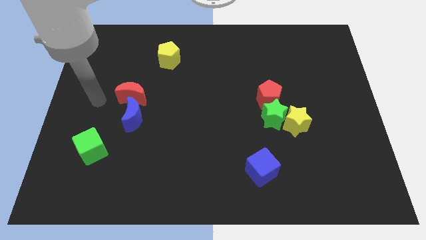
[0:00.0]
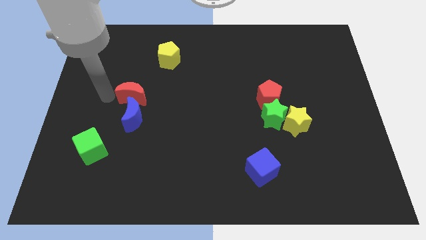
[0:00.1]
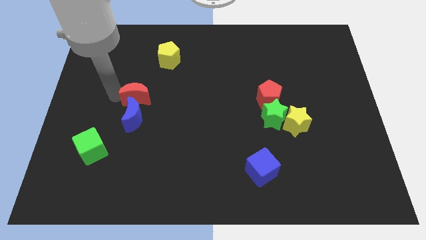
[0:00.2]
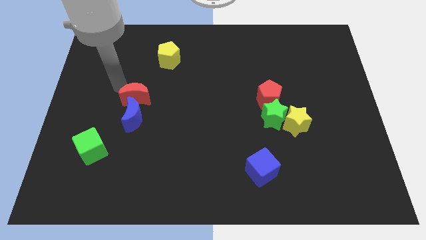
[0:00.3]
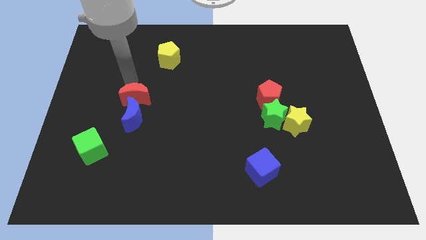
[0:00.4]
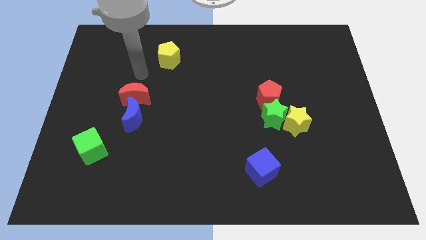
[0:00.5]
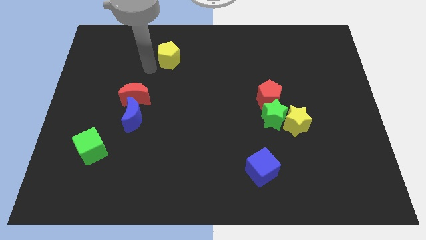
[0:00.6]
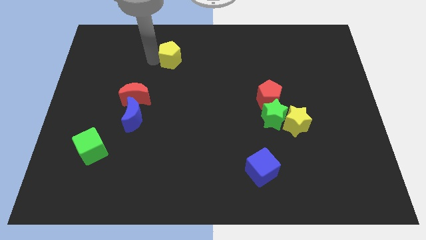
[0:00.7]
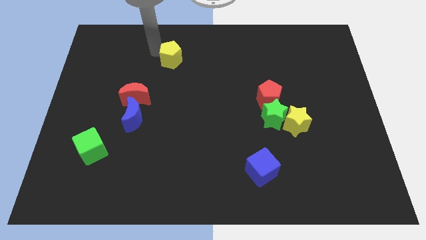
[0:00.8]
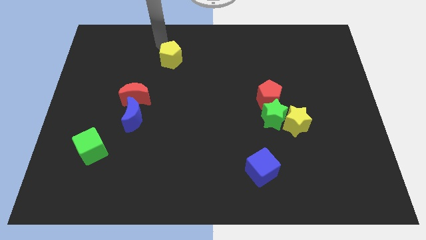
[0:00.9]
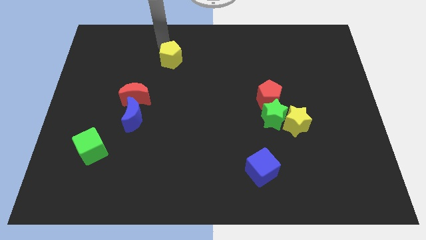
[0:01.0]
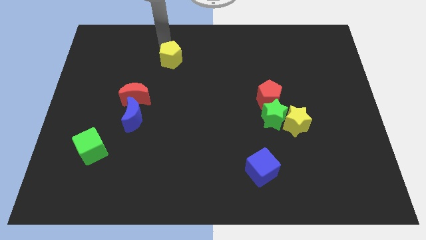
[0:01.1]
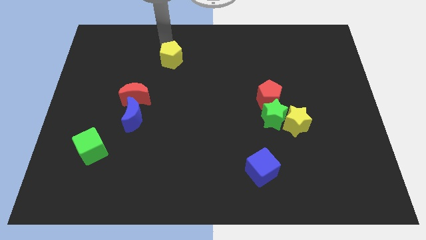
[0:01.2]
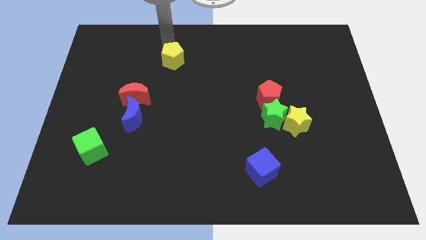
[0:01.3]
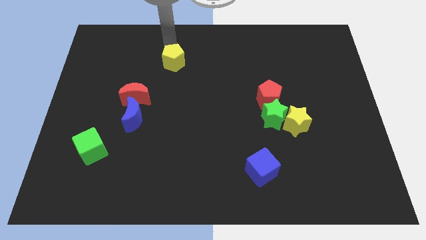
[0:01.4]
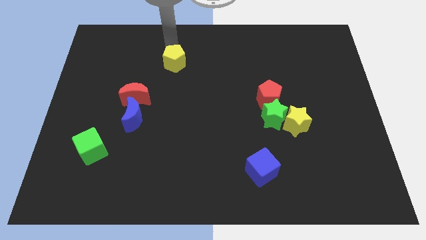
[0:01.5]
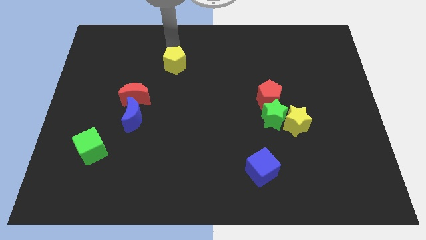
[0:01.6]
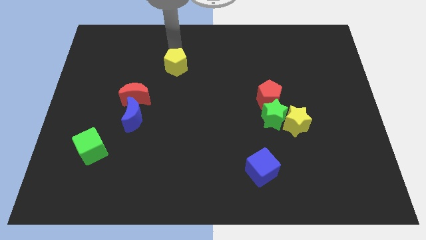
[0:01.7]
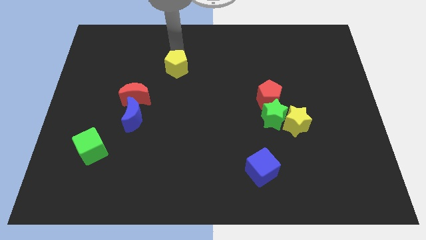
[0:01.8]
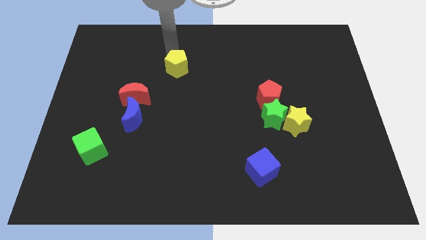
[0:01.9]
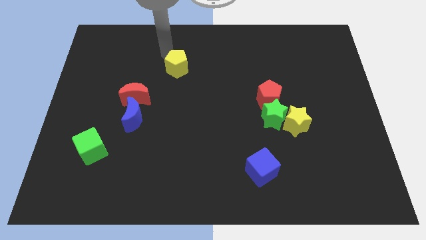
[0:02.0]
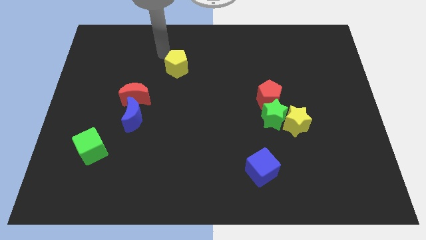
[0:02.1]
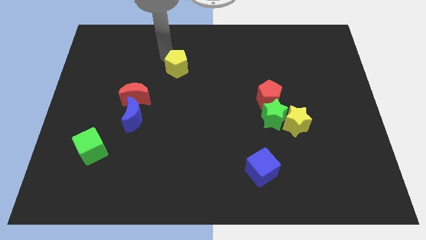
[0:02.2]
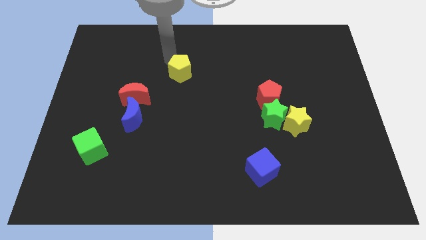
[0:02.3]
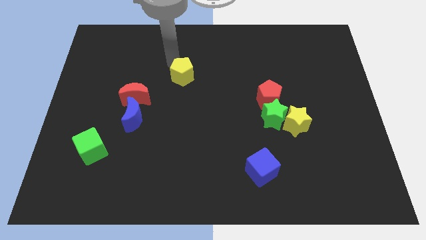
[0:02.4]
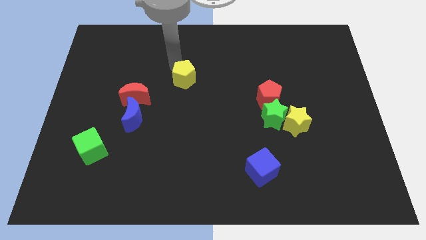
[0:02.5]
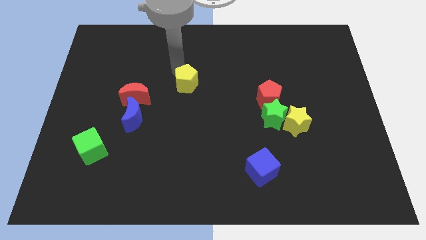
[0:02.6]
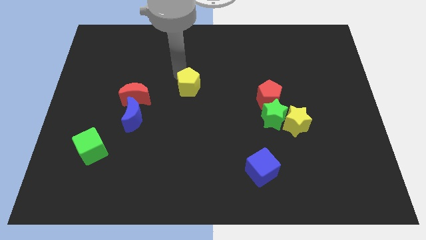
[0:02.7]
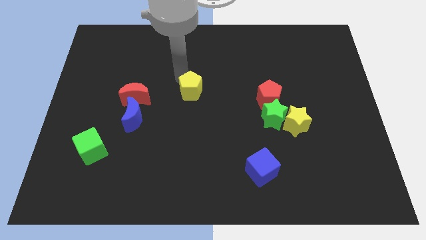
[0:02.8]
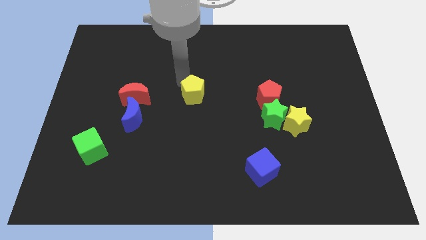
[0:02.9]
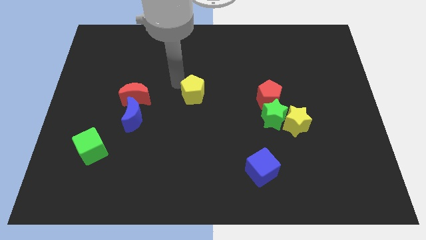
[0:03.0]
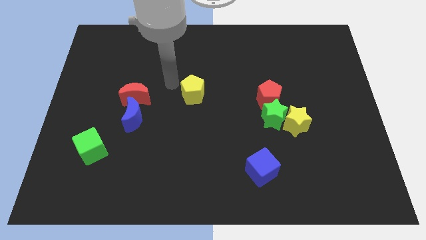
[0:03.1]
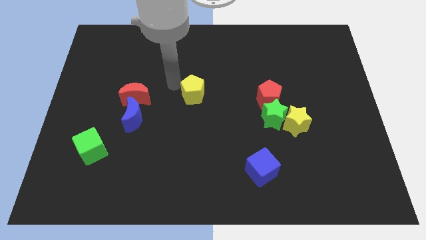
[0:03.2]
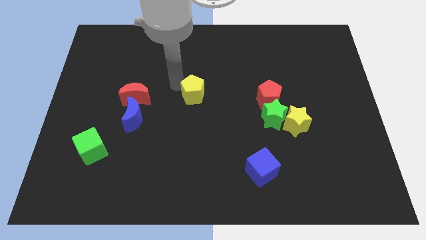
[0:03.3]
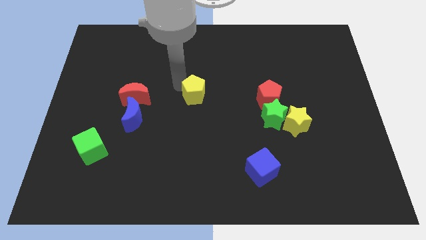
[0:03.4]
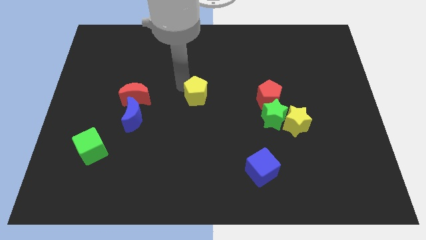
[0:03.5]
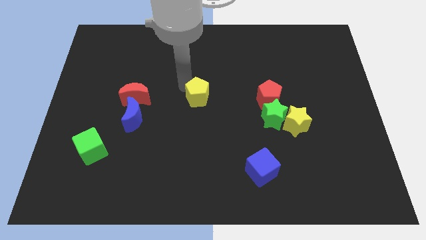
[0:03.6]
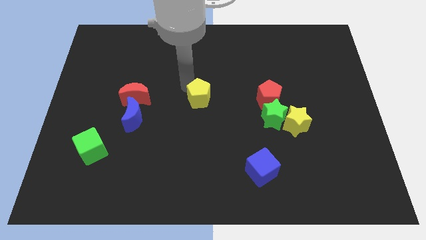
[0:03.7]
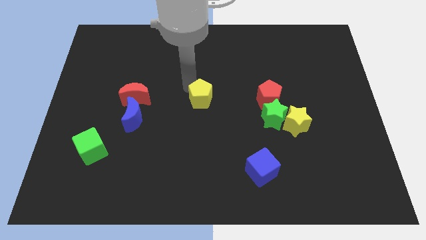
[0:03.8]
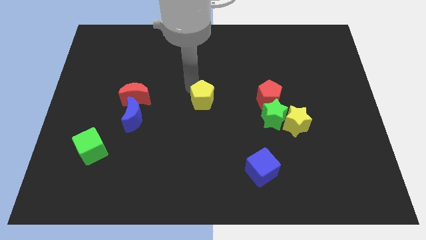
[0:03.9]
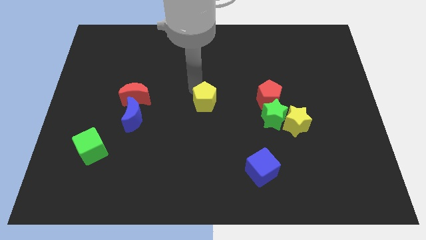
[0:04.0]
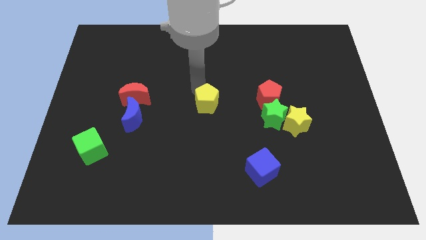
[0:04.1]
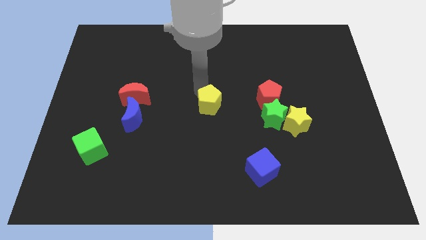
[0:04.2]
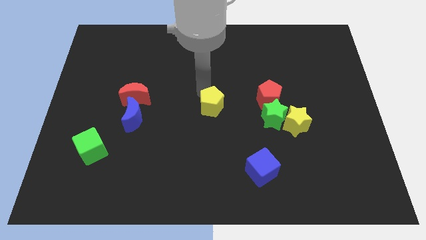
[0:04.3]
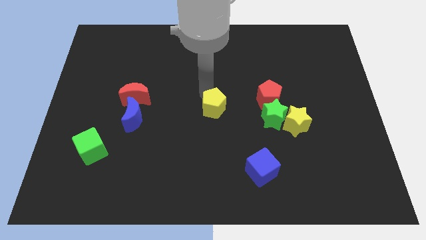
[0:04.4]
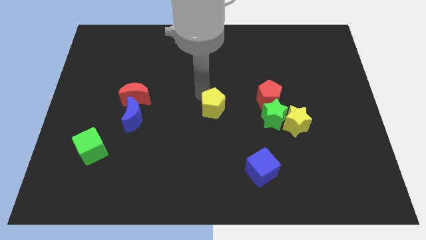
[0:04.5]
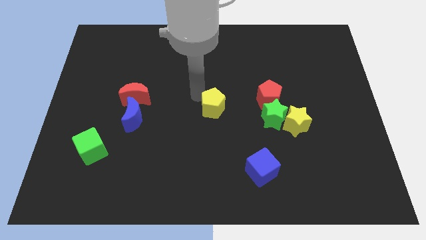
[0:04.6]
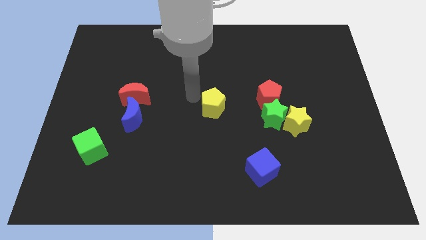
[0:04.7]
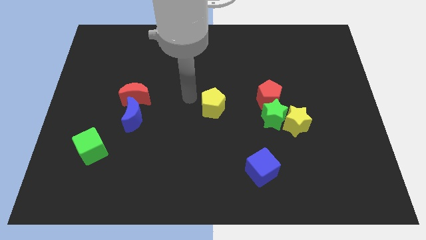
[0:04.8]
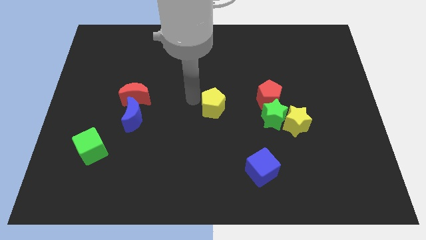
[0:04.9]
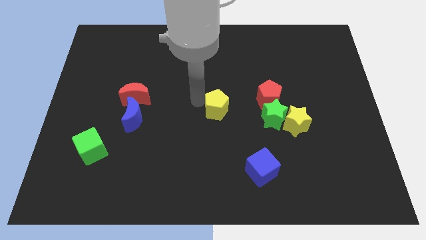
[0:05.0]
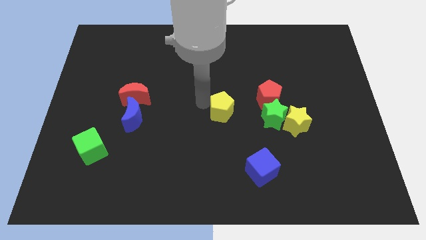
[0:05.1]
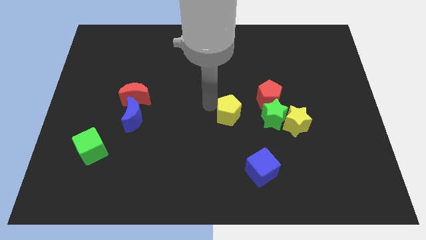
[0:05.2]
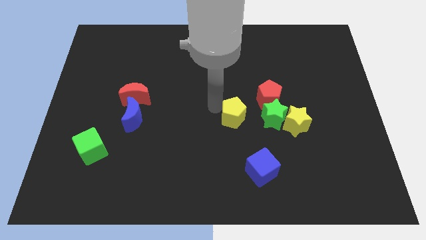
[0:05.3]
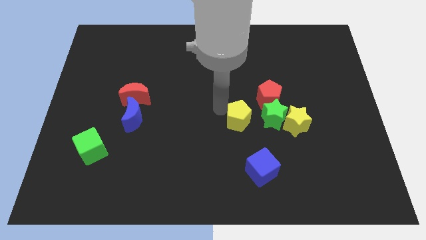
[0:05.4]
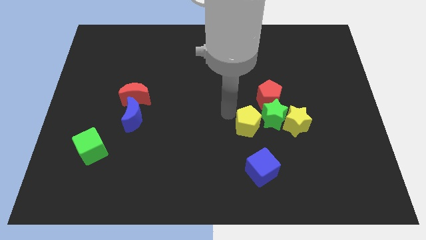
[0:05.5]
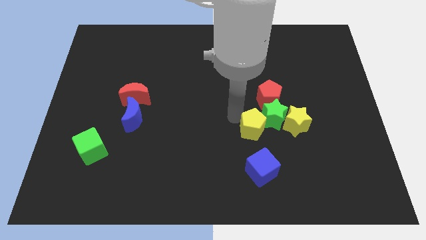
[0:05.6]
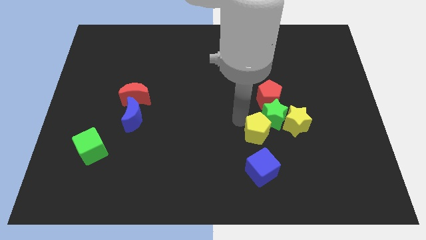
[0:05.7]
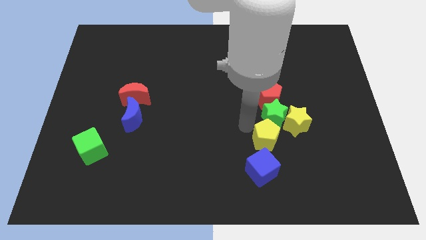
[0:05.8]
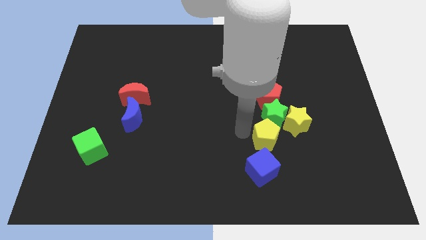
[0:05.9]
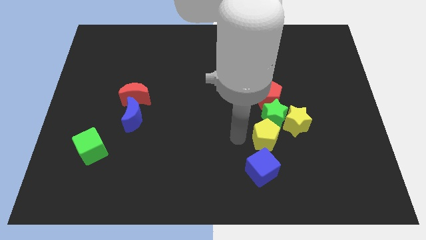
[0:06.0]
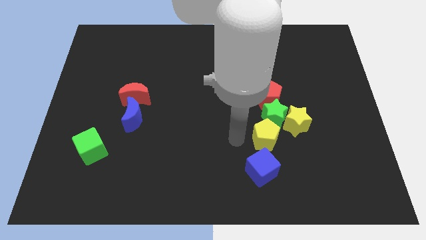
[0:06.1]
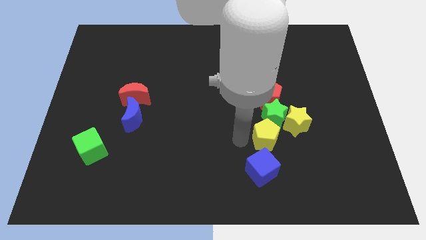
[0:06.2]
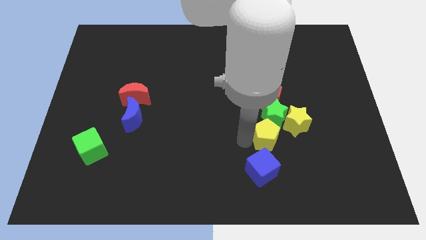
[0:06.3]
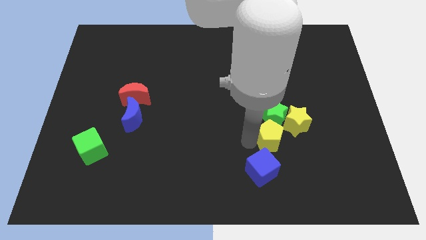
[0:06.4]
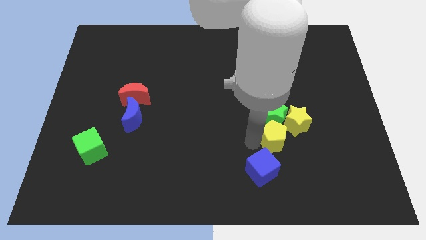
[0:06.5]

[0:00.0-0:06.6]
push the yellow pentagon diagonally down and to the right of the green star

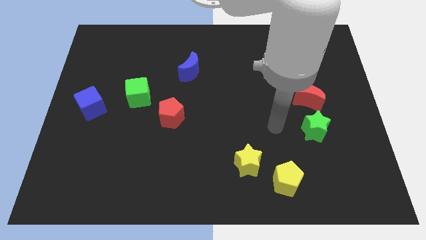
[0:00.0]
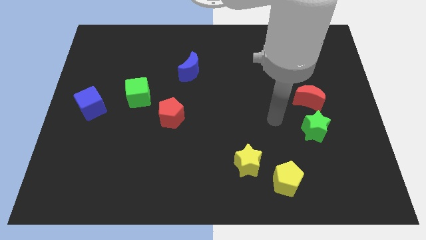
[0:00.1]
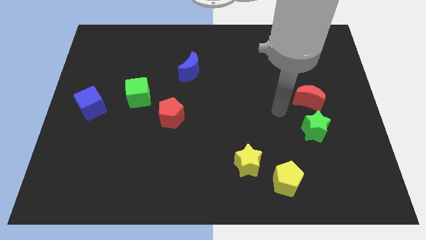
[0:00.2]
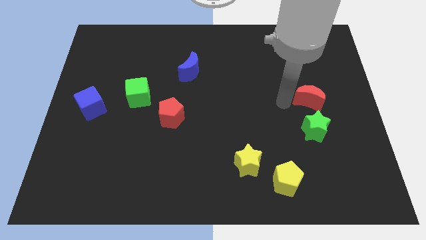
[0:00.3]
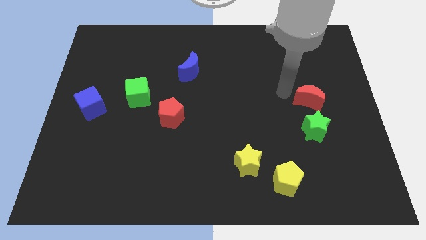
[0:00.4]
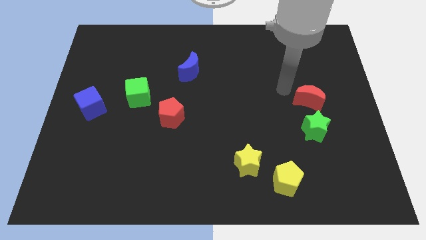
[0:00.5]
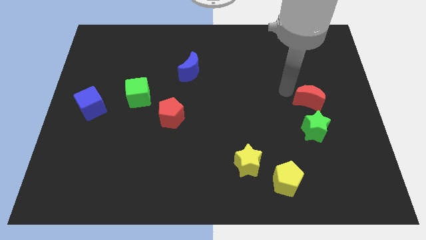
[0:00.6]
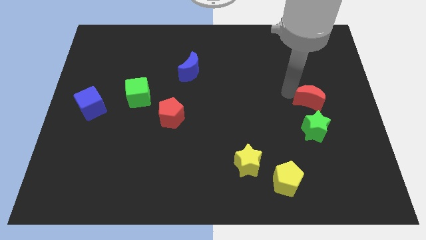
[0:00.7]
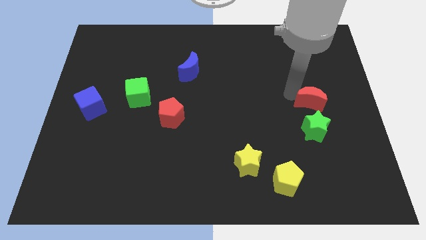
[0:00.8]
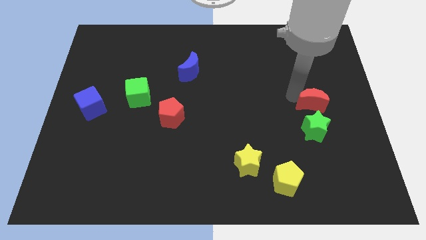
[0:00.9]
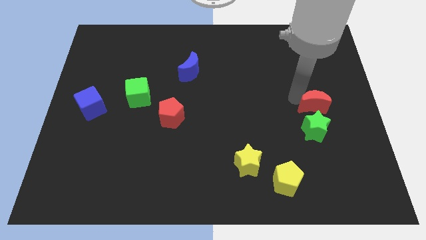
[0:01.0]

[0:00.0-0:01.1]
put the red moon to the top right side of the green star
